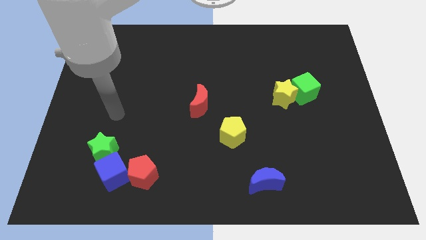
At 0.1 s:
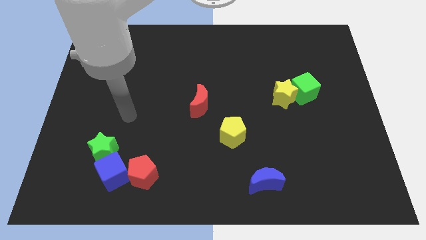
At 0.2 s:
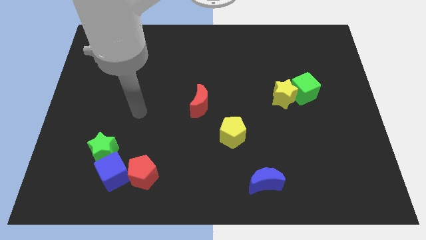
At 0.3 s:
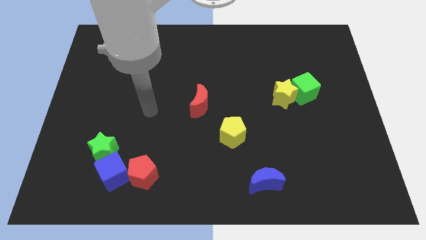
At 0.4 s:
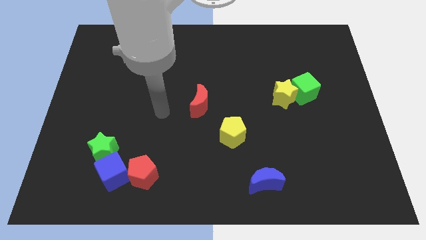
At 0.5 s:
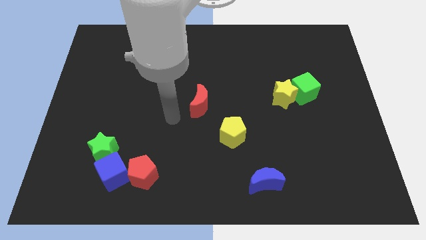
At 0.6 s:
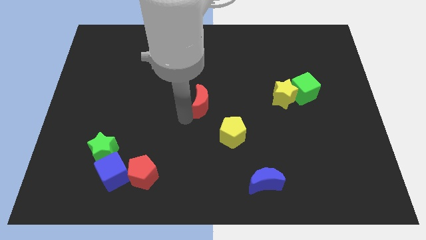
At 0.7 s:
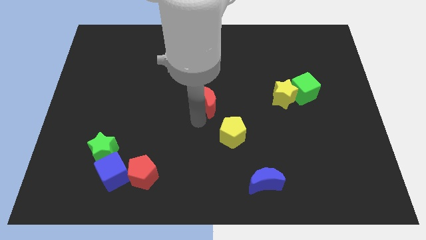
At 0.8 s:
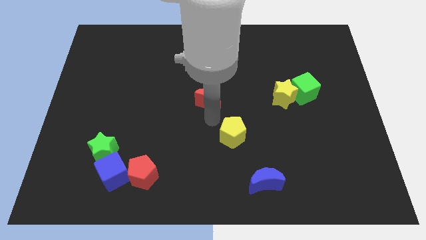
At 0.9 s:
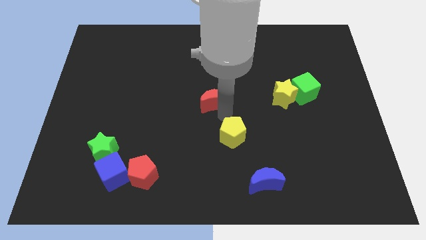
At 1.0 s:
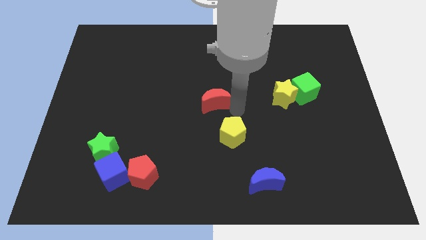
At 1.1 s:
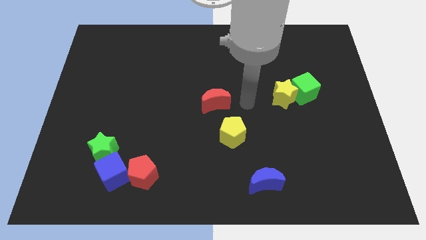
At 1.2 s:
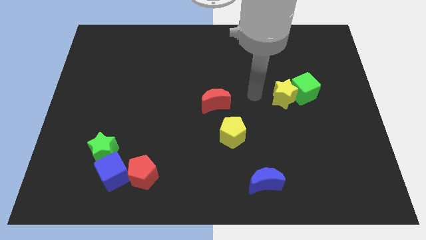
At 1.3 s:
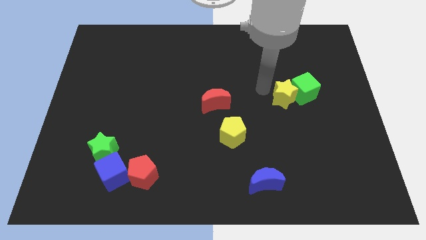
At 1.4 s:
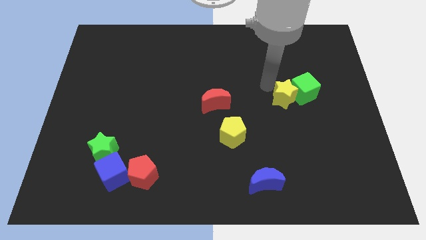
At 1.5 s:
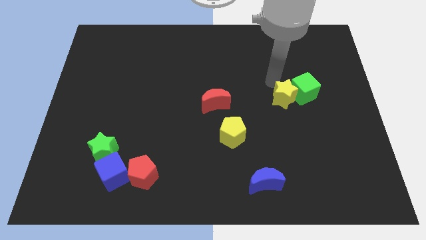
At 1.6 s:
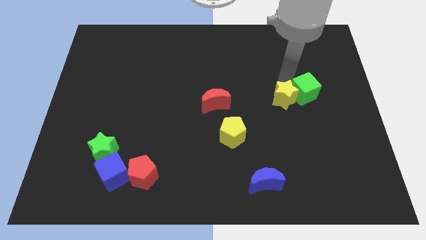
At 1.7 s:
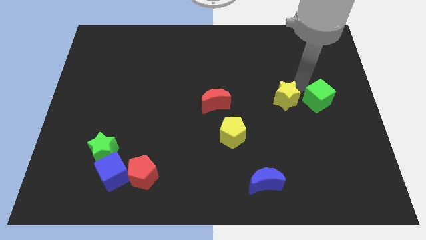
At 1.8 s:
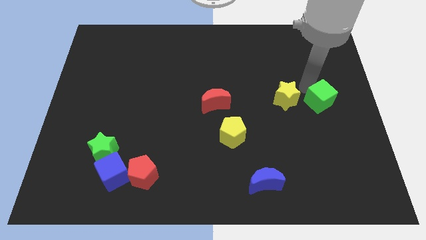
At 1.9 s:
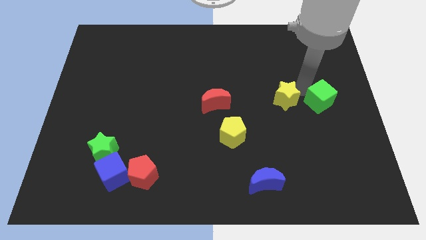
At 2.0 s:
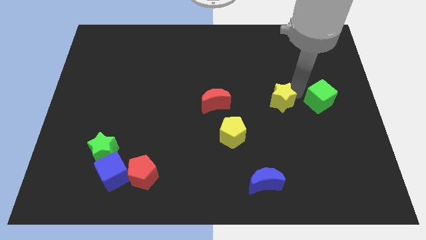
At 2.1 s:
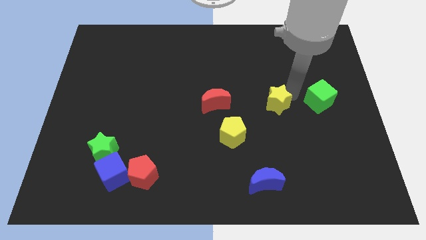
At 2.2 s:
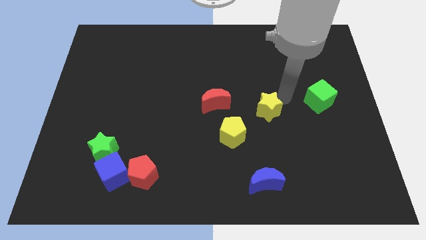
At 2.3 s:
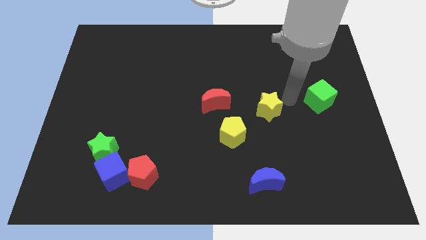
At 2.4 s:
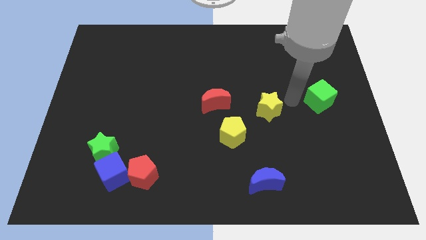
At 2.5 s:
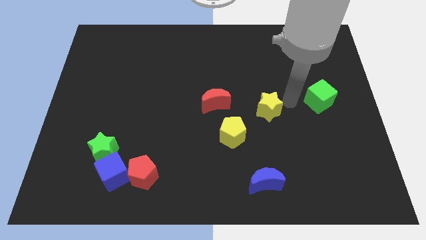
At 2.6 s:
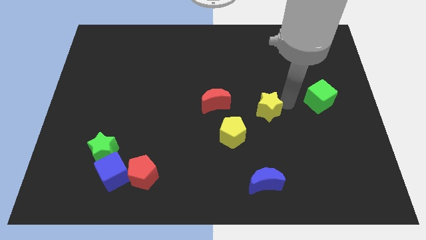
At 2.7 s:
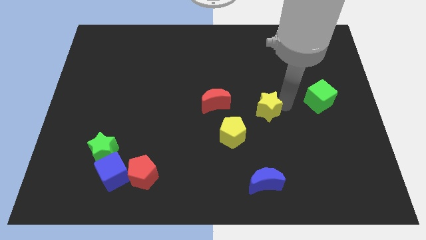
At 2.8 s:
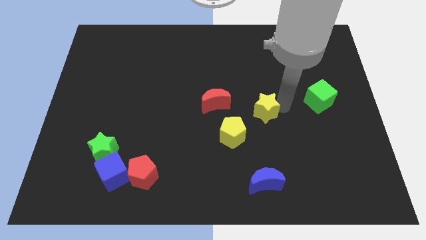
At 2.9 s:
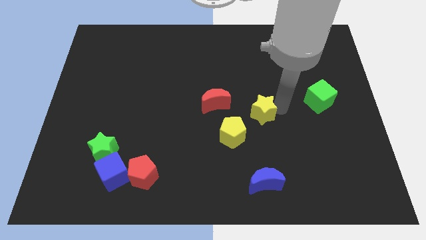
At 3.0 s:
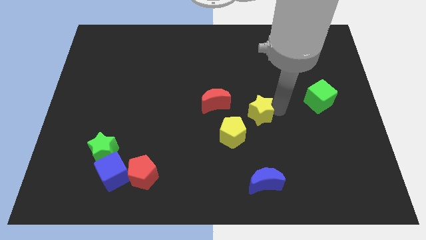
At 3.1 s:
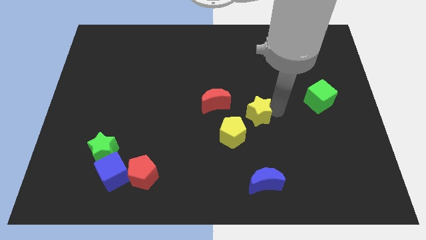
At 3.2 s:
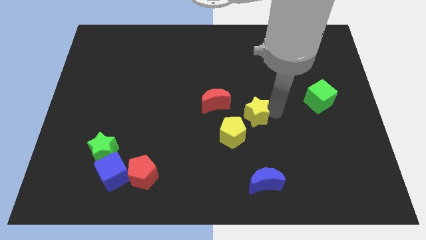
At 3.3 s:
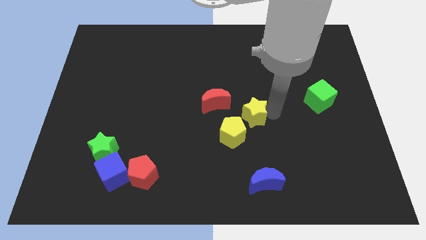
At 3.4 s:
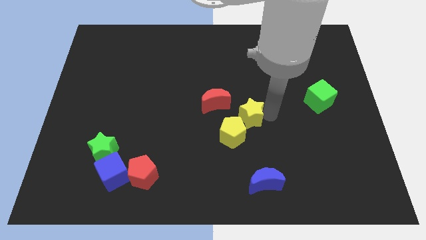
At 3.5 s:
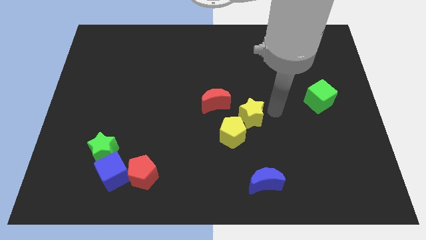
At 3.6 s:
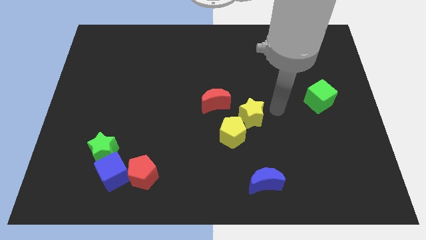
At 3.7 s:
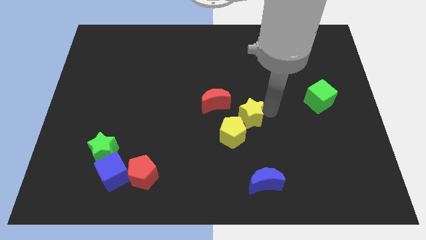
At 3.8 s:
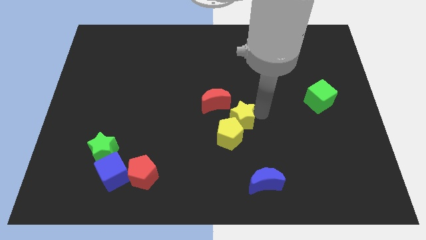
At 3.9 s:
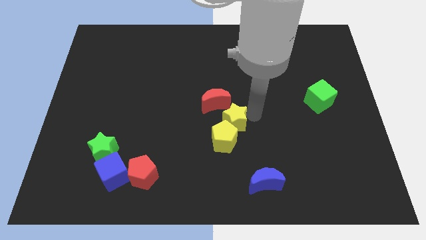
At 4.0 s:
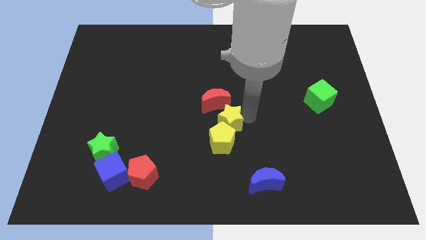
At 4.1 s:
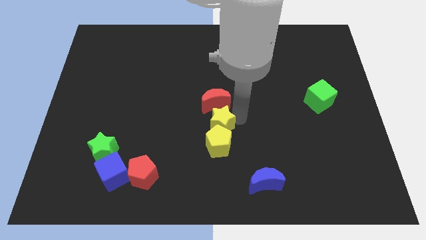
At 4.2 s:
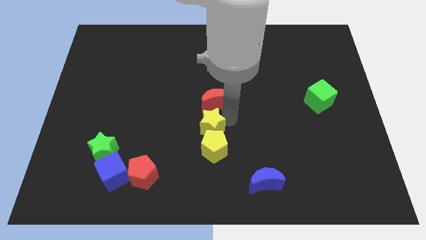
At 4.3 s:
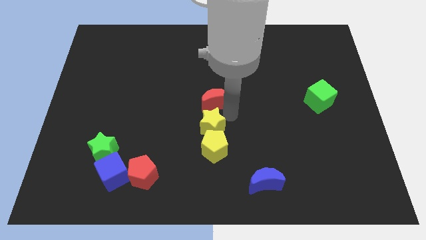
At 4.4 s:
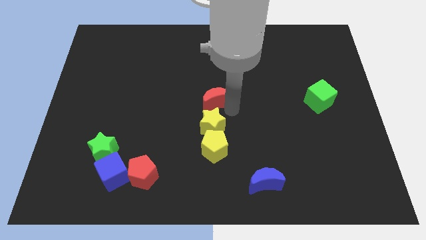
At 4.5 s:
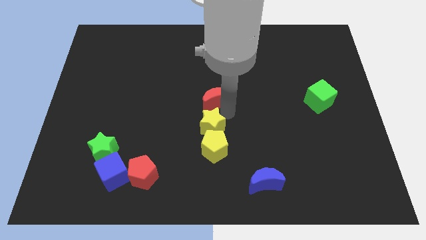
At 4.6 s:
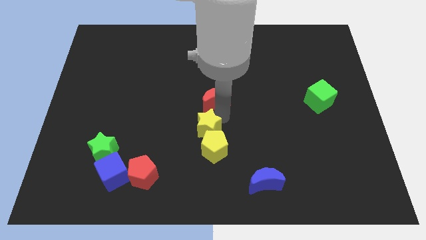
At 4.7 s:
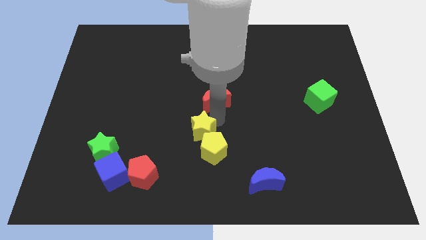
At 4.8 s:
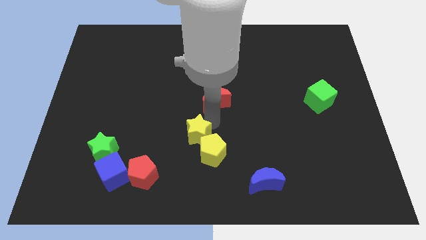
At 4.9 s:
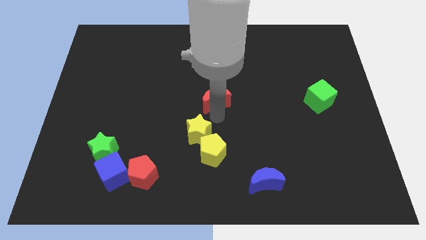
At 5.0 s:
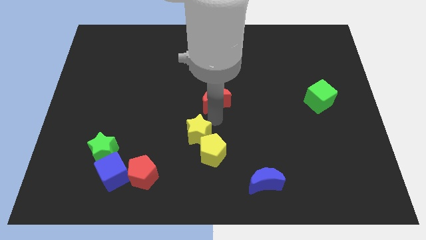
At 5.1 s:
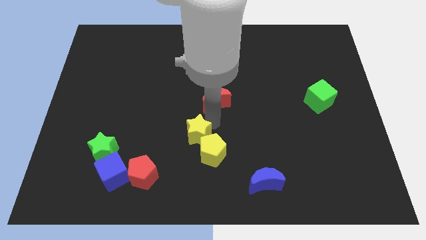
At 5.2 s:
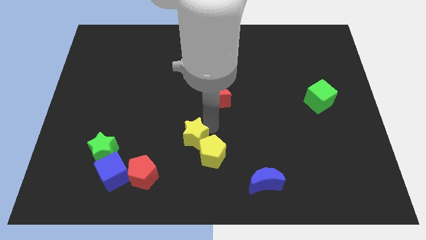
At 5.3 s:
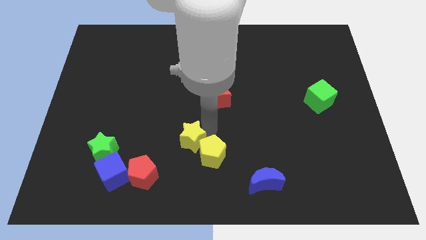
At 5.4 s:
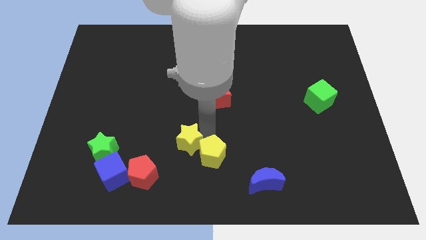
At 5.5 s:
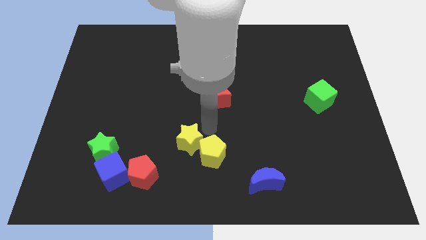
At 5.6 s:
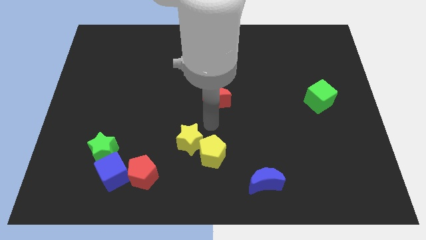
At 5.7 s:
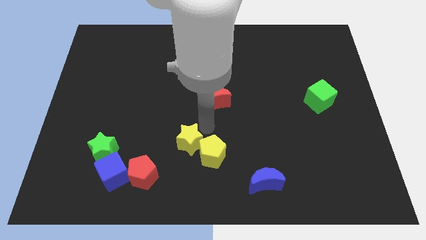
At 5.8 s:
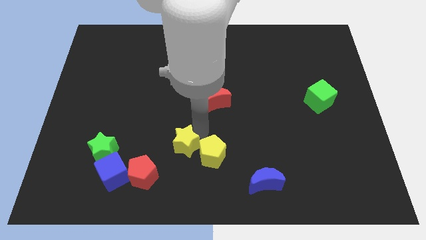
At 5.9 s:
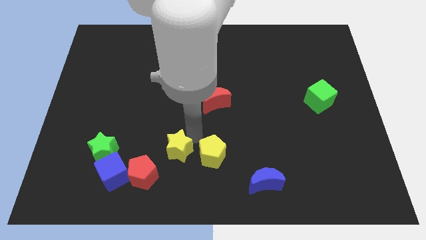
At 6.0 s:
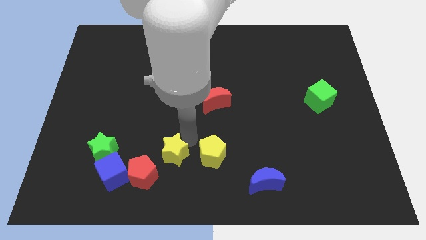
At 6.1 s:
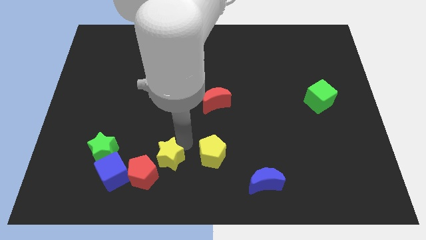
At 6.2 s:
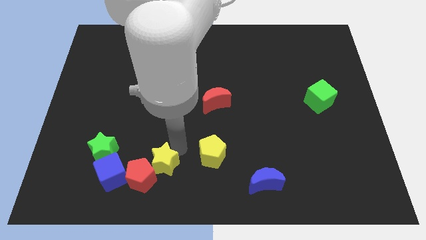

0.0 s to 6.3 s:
move the yellow star towards the red pentagon

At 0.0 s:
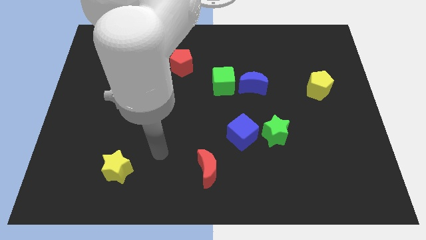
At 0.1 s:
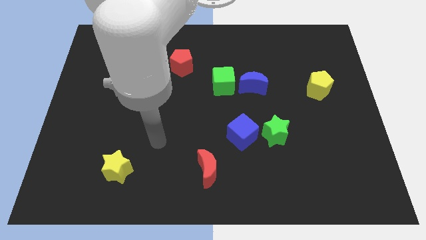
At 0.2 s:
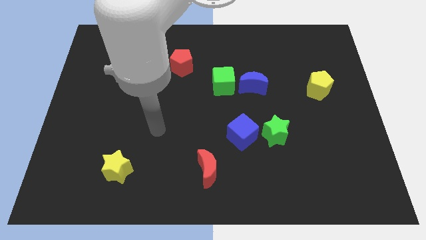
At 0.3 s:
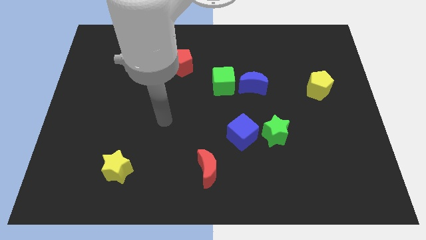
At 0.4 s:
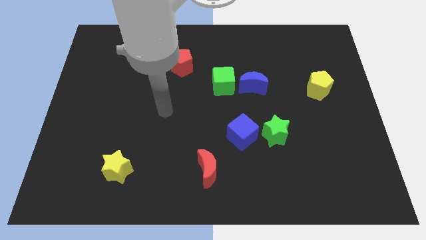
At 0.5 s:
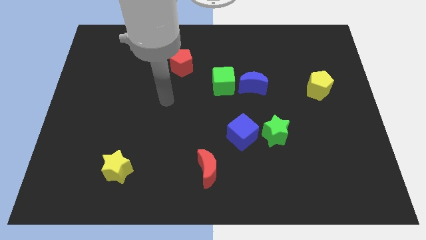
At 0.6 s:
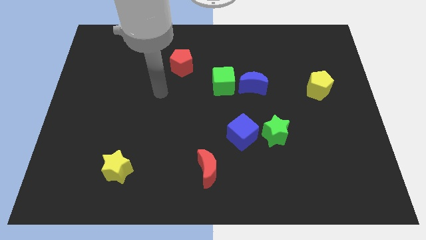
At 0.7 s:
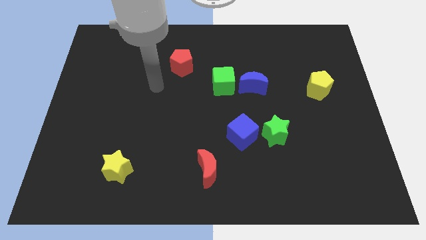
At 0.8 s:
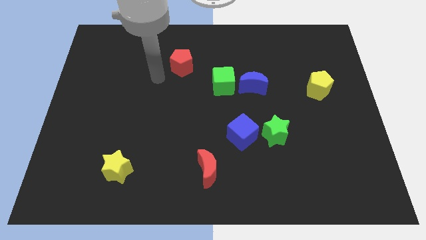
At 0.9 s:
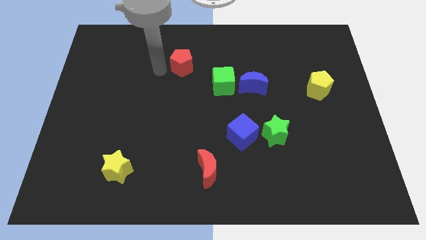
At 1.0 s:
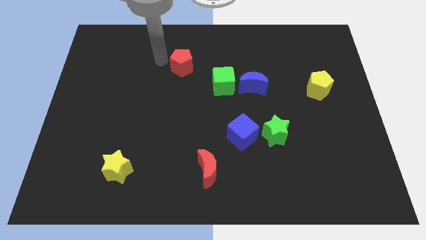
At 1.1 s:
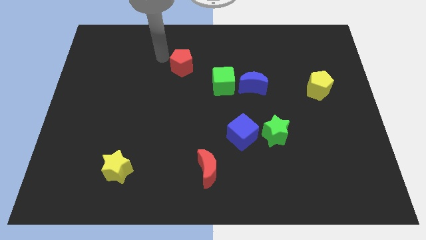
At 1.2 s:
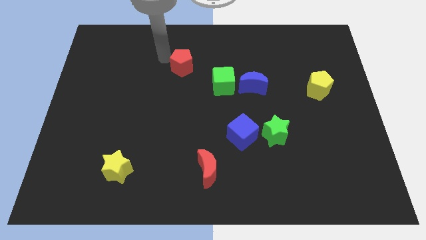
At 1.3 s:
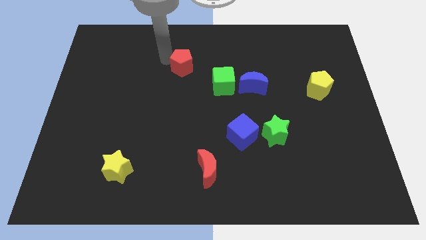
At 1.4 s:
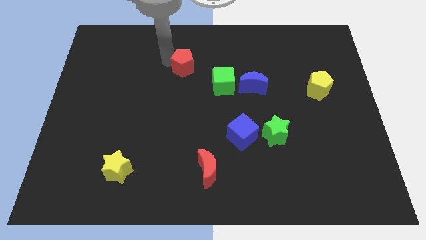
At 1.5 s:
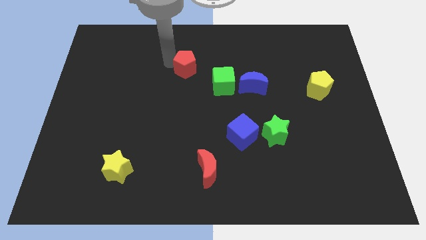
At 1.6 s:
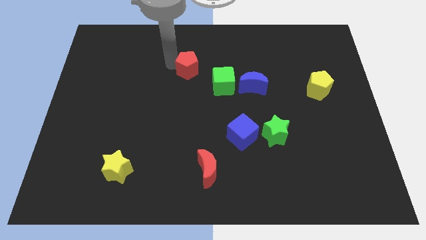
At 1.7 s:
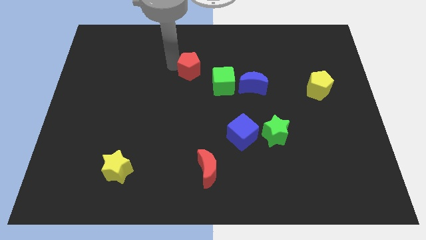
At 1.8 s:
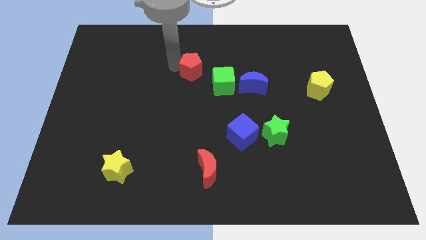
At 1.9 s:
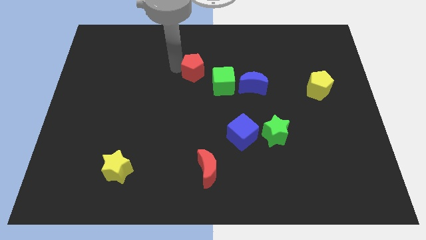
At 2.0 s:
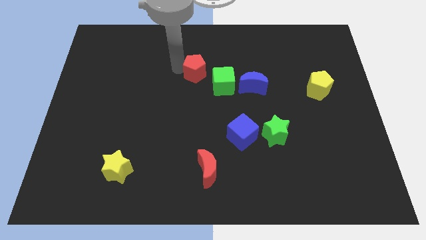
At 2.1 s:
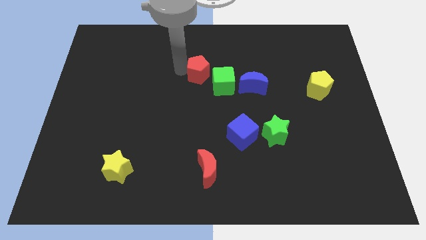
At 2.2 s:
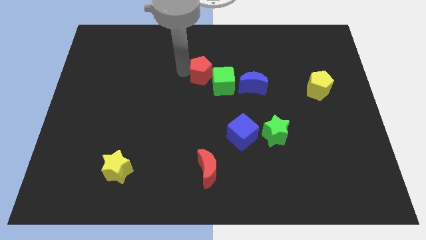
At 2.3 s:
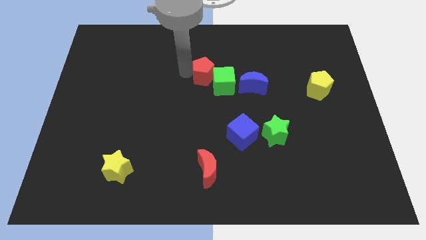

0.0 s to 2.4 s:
move the red pentagon next to the green cube
